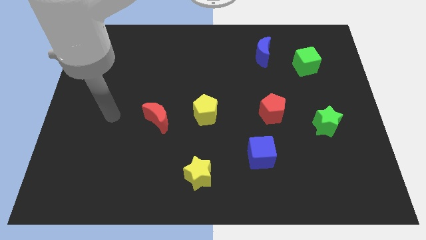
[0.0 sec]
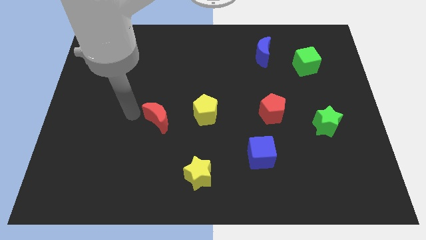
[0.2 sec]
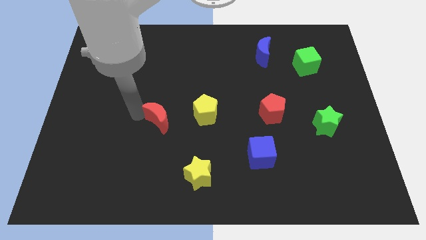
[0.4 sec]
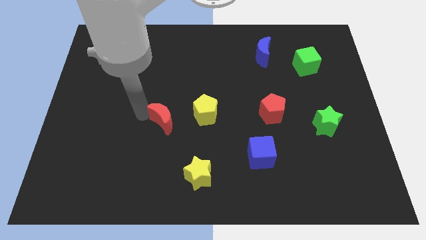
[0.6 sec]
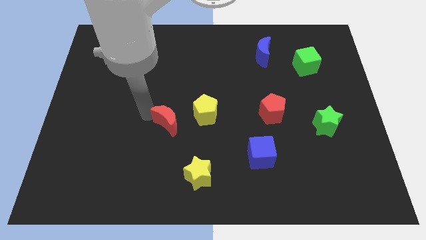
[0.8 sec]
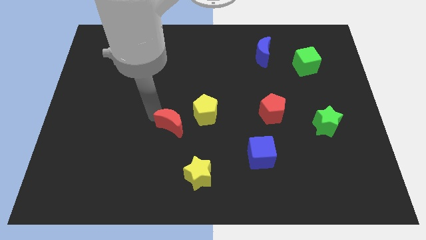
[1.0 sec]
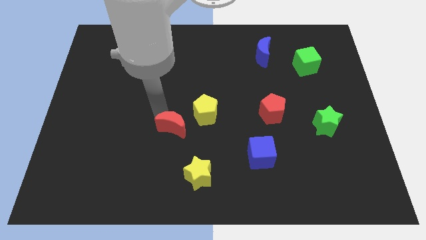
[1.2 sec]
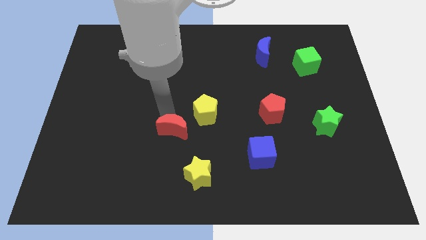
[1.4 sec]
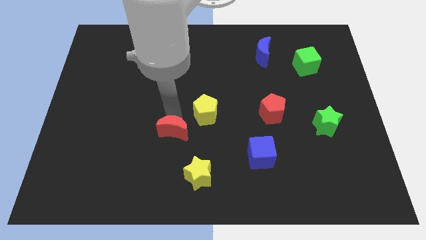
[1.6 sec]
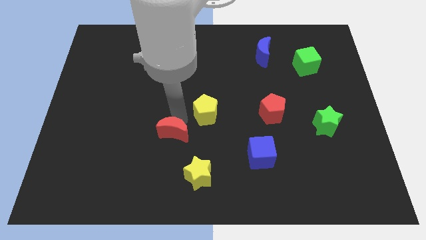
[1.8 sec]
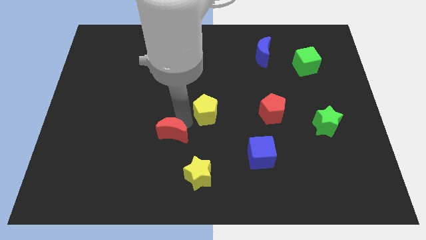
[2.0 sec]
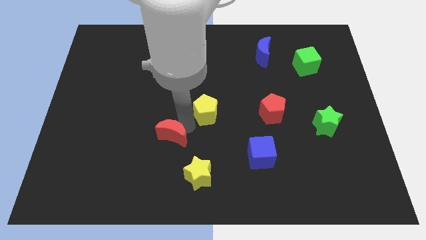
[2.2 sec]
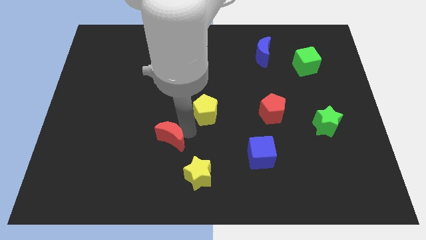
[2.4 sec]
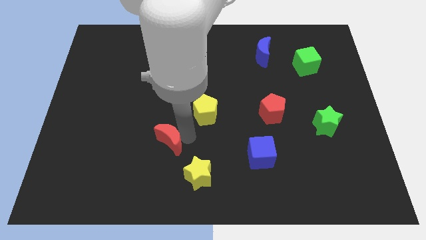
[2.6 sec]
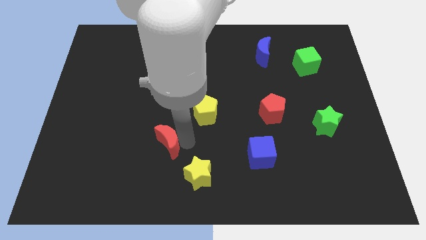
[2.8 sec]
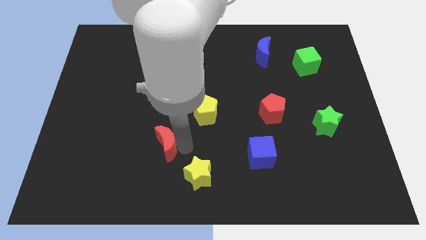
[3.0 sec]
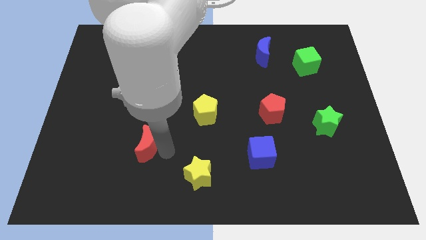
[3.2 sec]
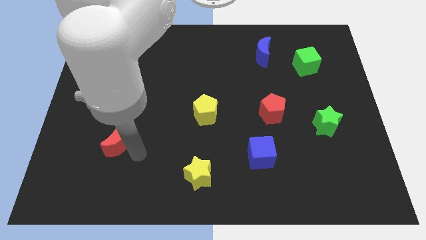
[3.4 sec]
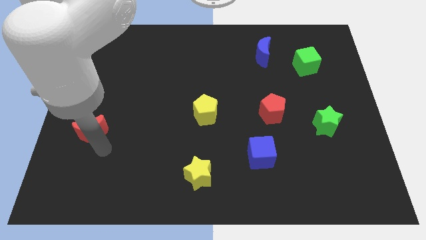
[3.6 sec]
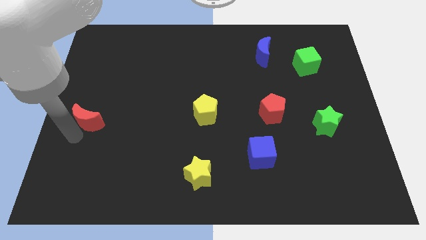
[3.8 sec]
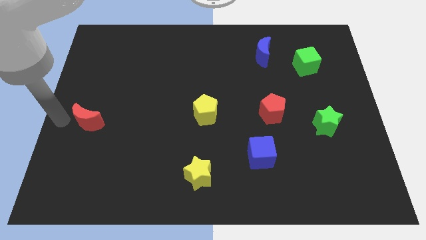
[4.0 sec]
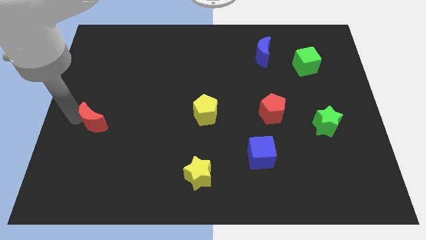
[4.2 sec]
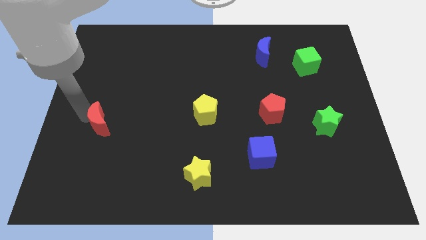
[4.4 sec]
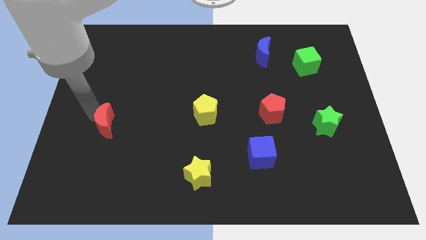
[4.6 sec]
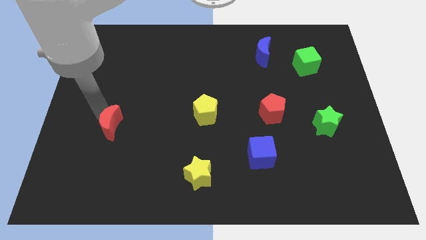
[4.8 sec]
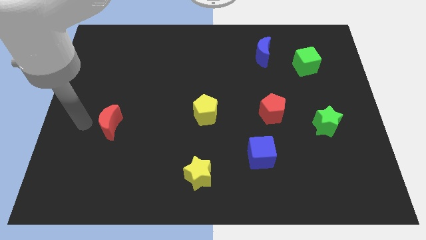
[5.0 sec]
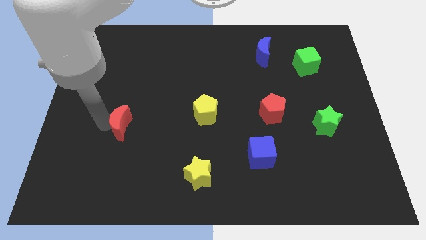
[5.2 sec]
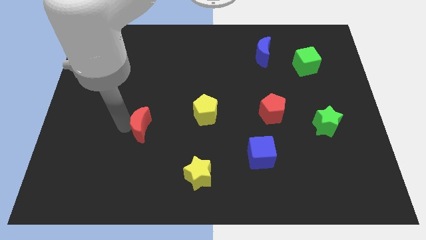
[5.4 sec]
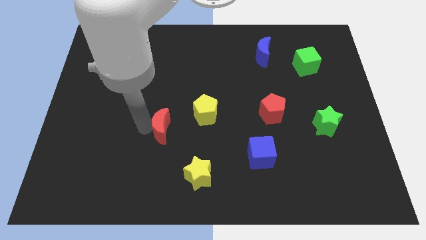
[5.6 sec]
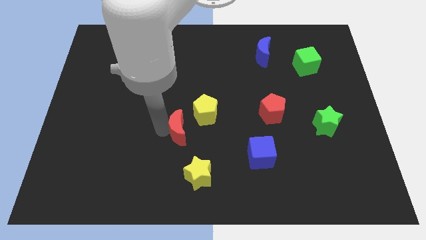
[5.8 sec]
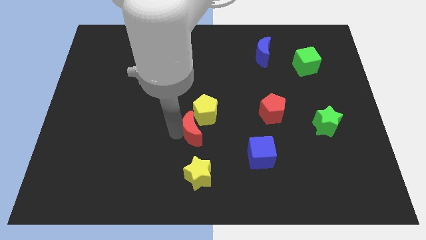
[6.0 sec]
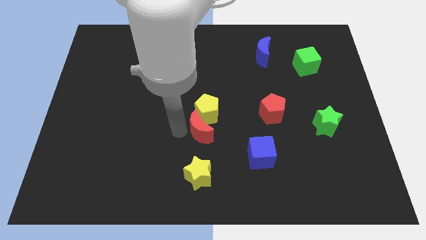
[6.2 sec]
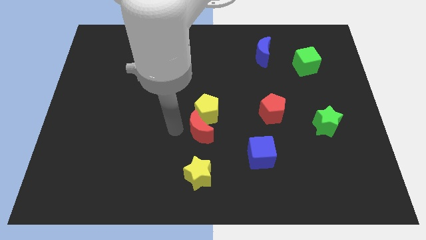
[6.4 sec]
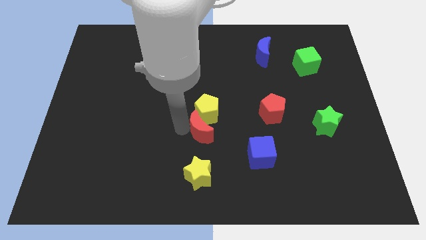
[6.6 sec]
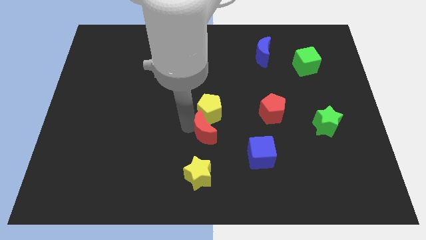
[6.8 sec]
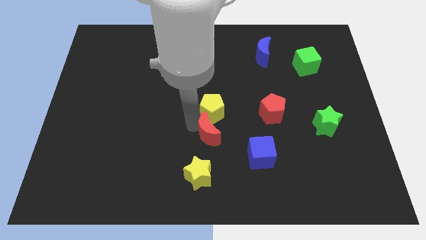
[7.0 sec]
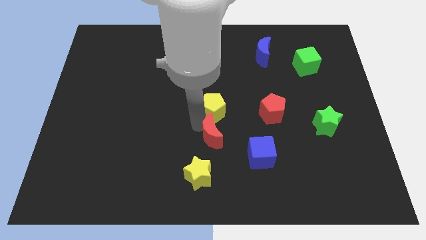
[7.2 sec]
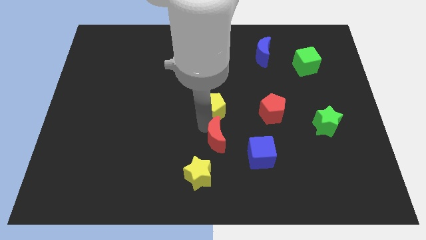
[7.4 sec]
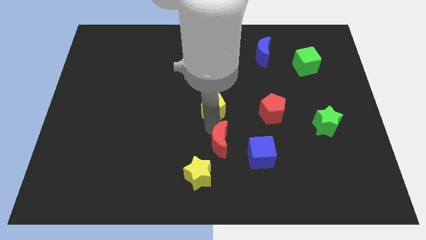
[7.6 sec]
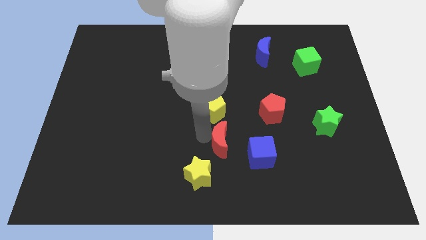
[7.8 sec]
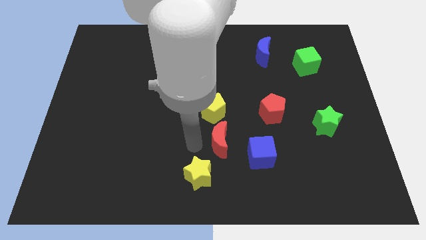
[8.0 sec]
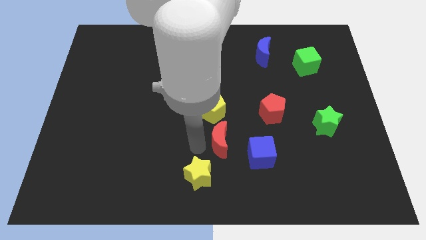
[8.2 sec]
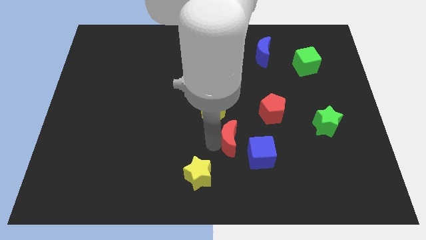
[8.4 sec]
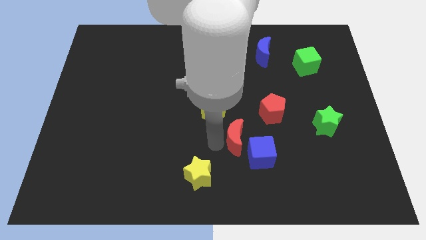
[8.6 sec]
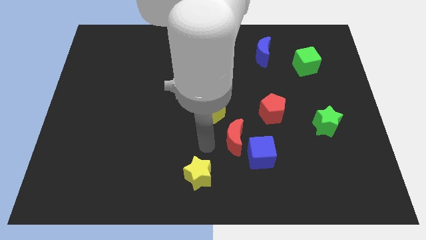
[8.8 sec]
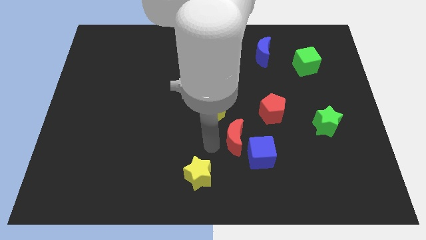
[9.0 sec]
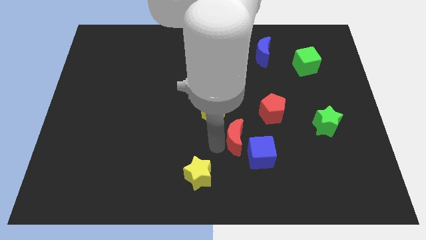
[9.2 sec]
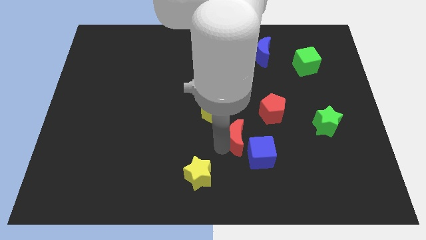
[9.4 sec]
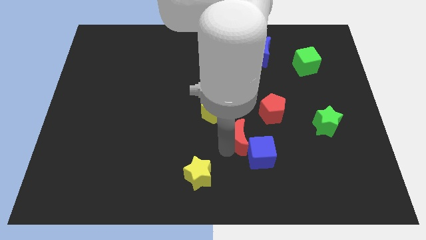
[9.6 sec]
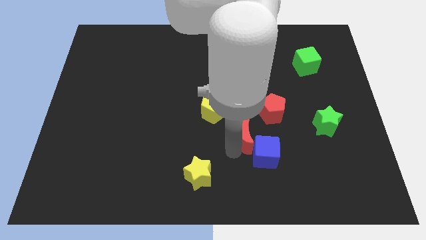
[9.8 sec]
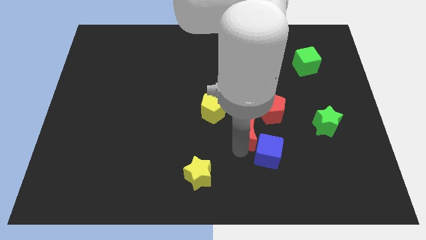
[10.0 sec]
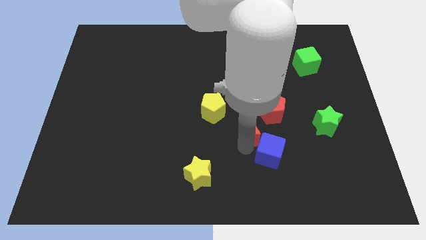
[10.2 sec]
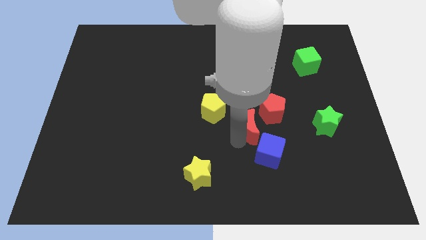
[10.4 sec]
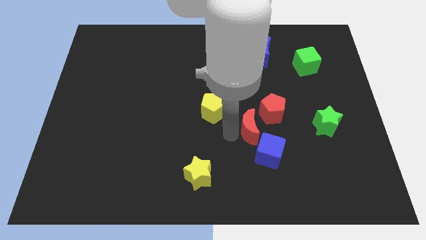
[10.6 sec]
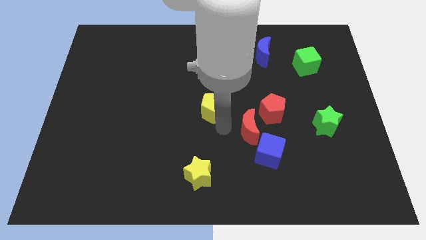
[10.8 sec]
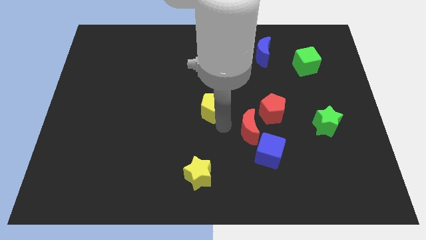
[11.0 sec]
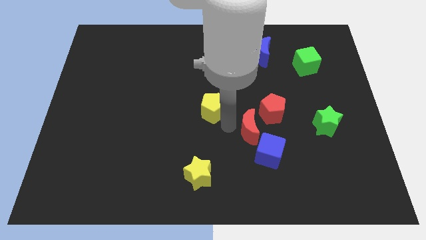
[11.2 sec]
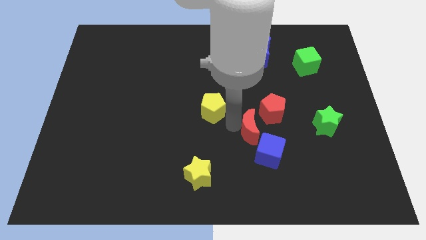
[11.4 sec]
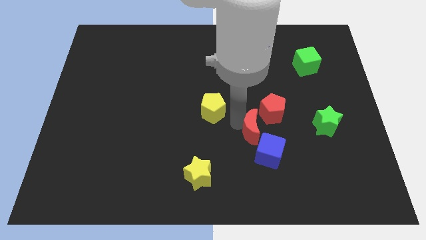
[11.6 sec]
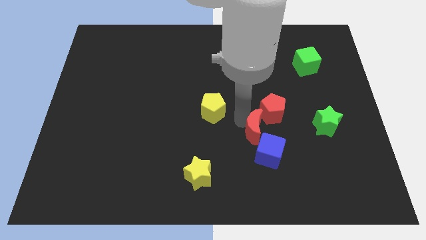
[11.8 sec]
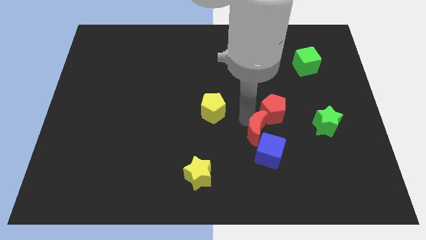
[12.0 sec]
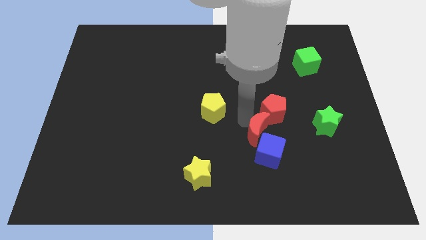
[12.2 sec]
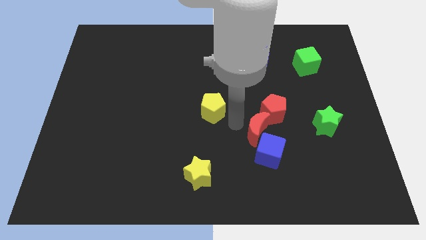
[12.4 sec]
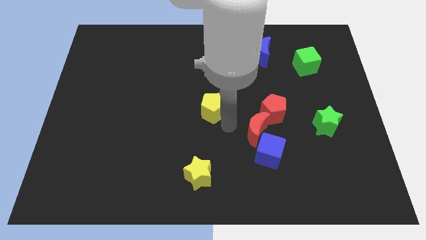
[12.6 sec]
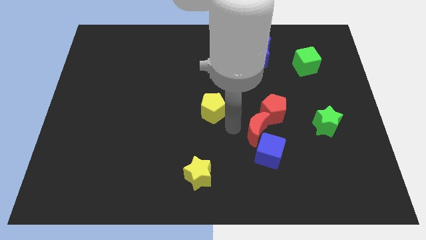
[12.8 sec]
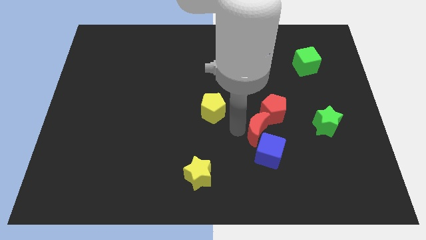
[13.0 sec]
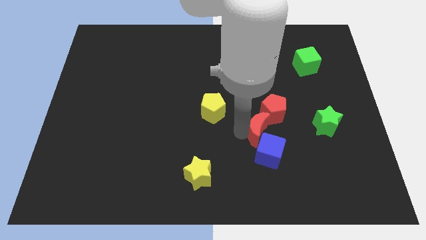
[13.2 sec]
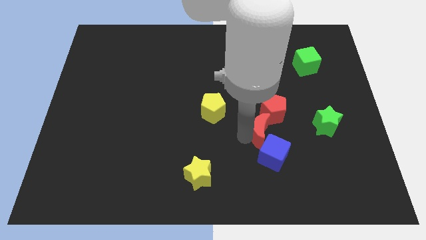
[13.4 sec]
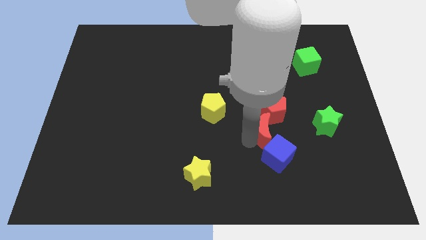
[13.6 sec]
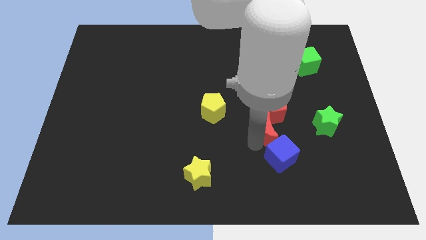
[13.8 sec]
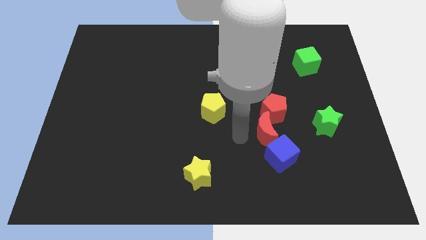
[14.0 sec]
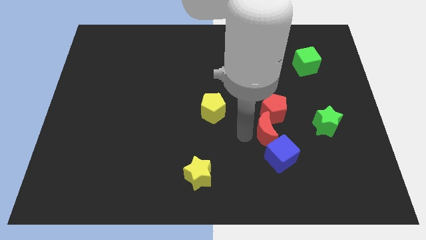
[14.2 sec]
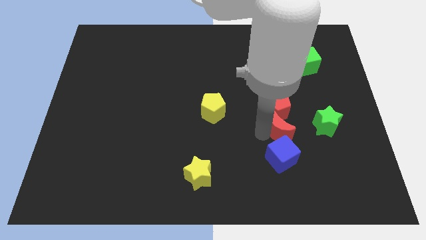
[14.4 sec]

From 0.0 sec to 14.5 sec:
move the red moon to the bottom right side of the red pentagon
